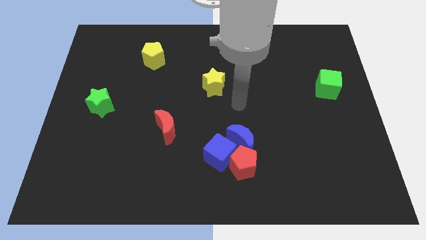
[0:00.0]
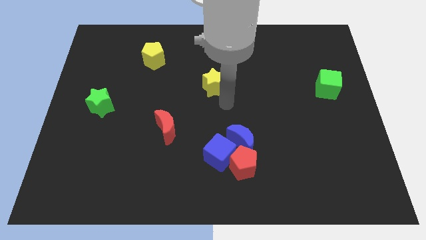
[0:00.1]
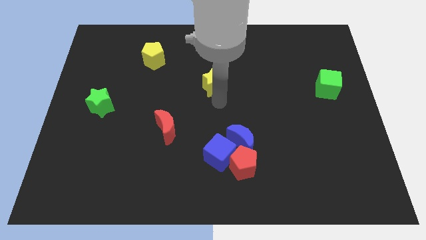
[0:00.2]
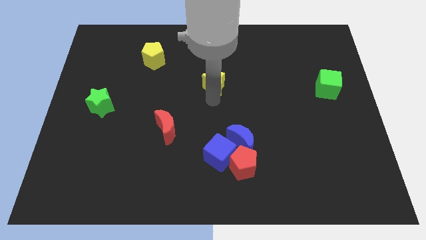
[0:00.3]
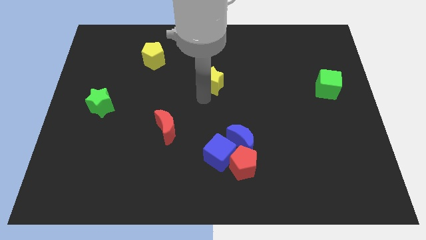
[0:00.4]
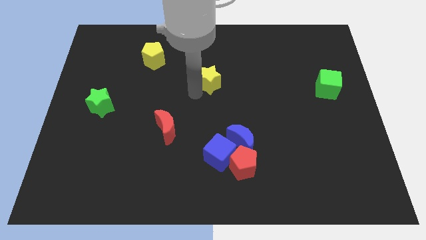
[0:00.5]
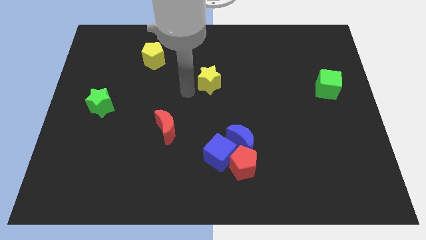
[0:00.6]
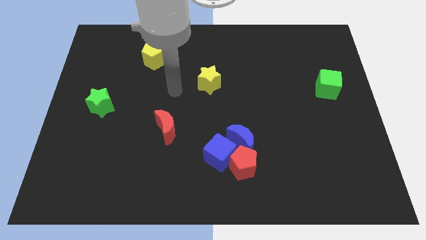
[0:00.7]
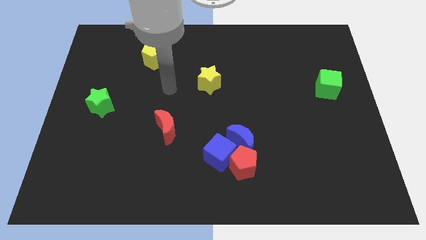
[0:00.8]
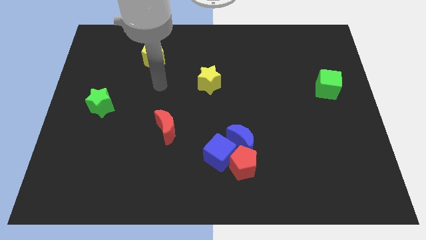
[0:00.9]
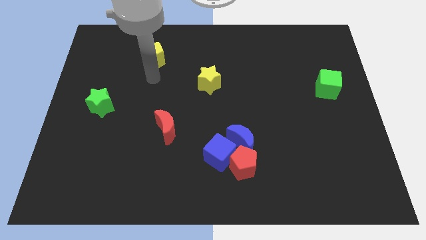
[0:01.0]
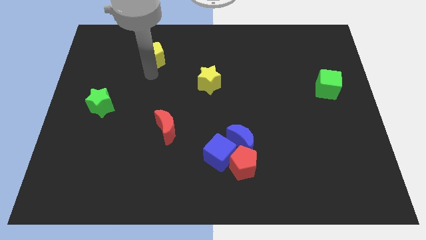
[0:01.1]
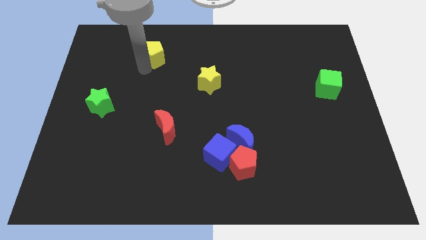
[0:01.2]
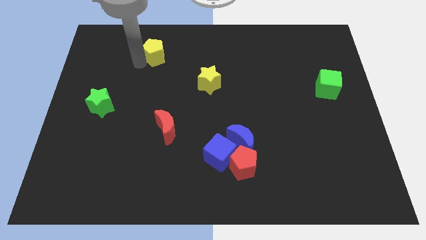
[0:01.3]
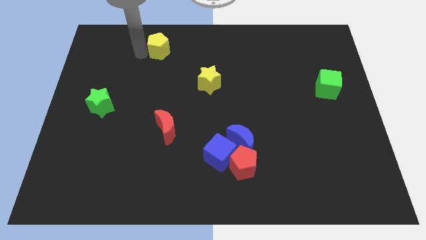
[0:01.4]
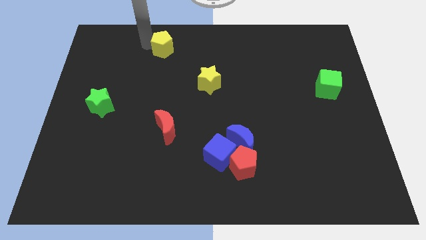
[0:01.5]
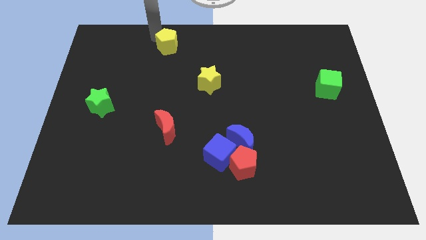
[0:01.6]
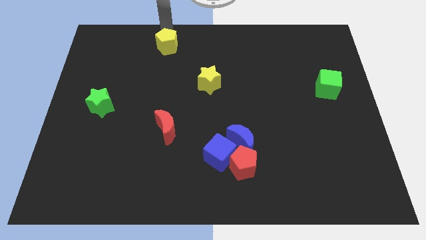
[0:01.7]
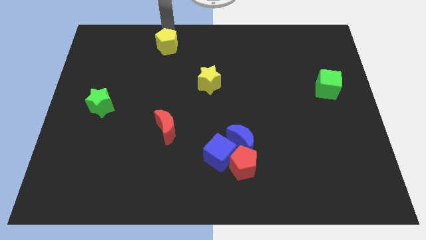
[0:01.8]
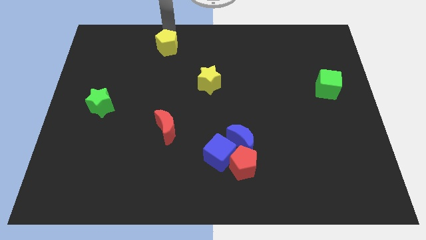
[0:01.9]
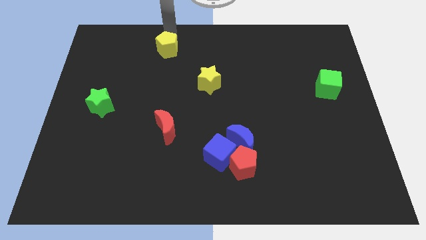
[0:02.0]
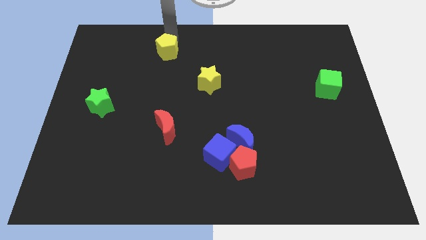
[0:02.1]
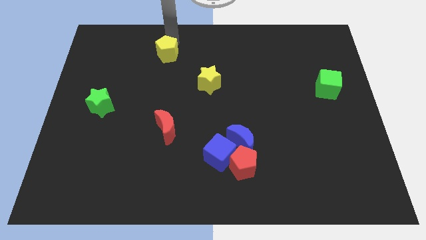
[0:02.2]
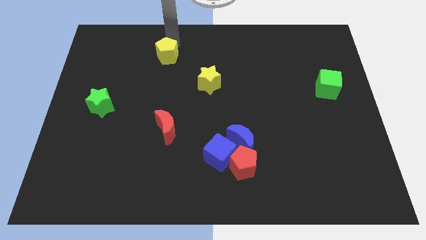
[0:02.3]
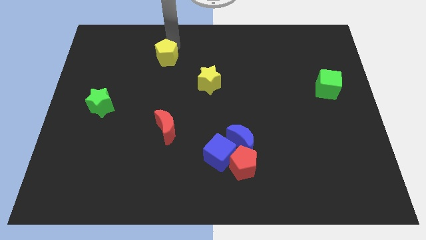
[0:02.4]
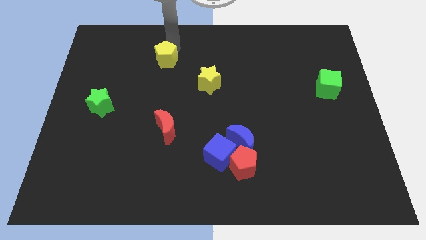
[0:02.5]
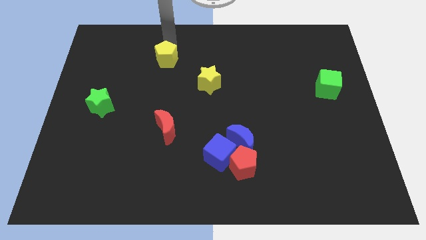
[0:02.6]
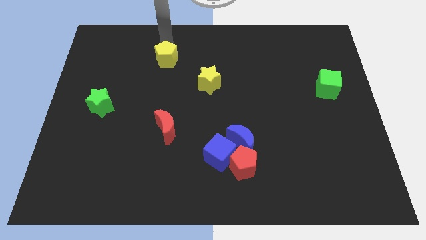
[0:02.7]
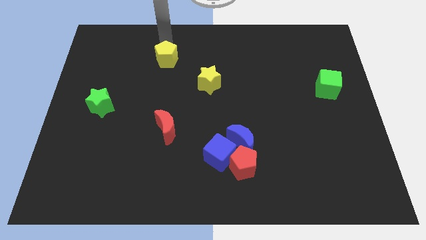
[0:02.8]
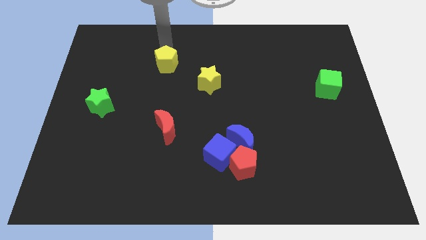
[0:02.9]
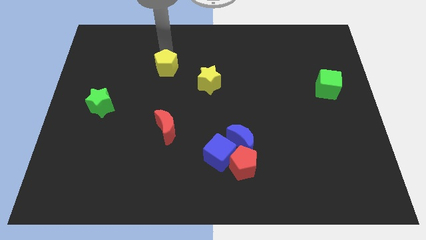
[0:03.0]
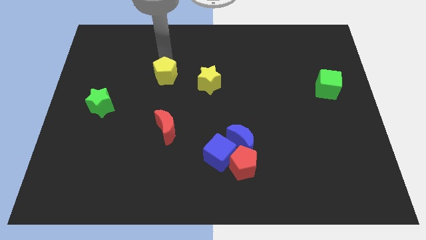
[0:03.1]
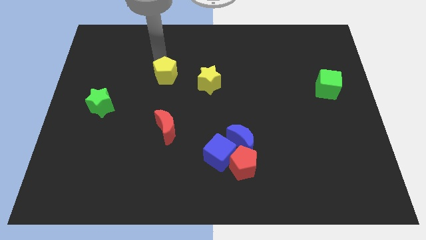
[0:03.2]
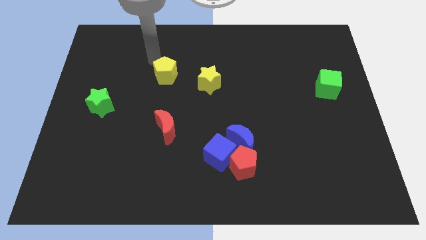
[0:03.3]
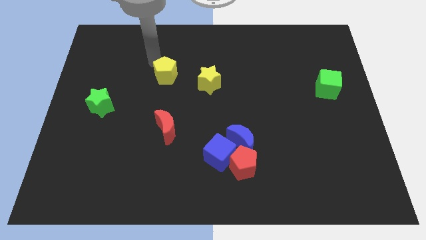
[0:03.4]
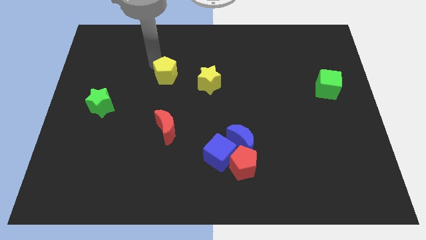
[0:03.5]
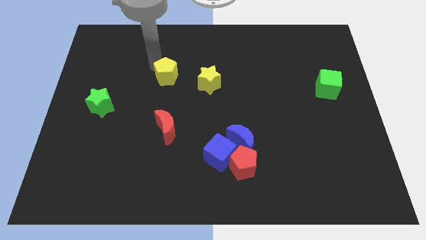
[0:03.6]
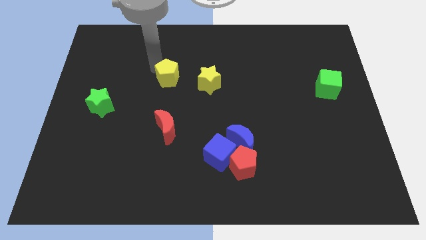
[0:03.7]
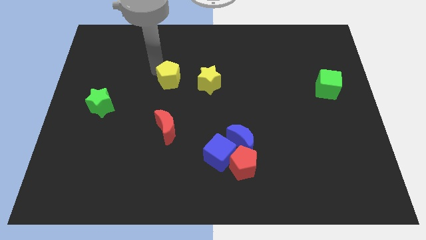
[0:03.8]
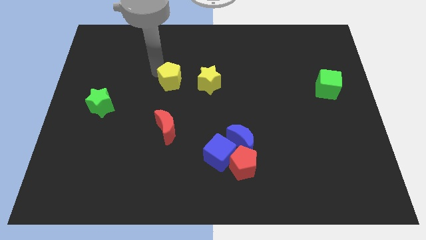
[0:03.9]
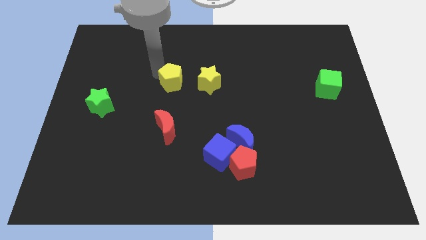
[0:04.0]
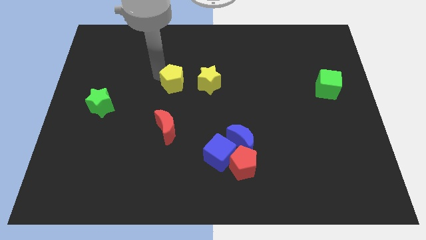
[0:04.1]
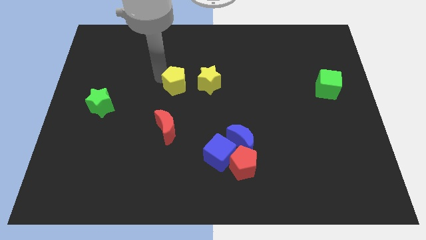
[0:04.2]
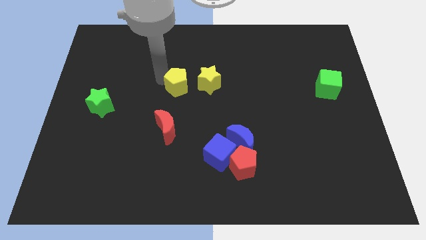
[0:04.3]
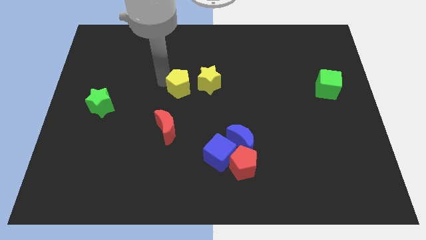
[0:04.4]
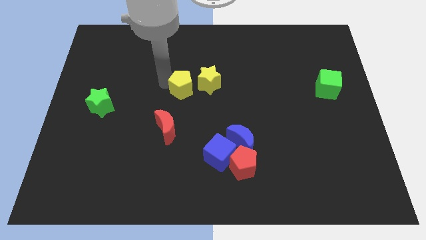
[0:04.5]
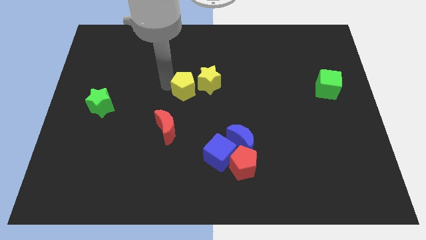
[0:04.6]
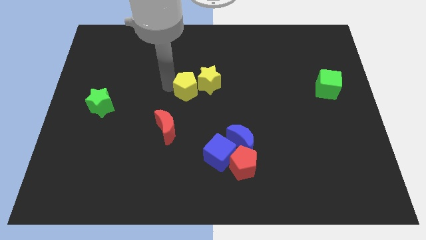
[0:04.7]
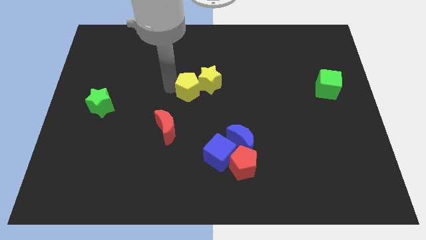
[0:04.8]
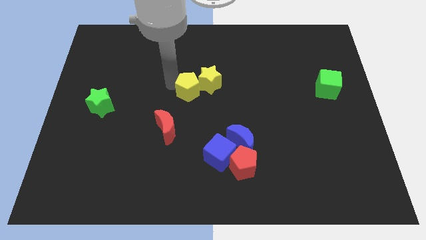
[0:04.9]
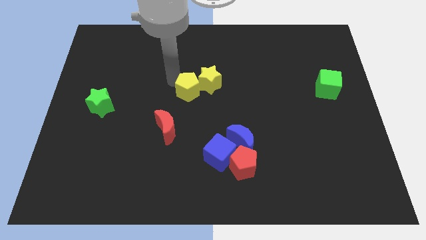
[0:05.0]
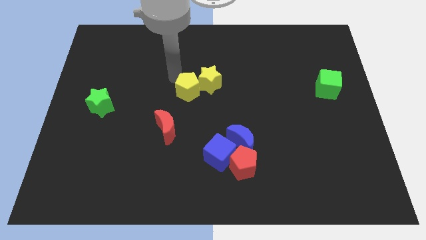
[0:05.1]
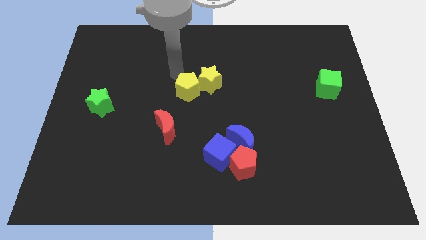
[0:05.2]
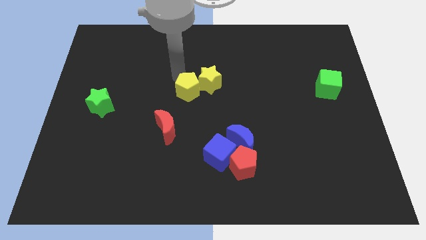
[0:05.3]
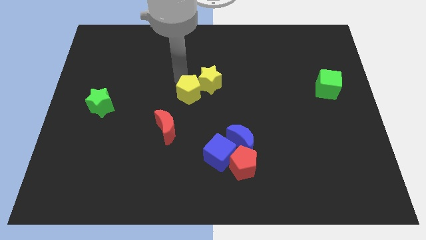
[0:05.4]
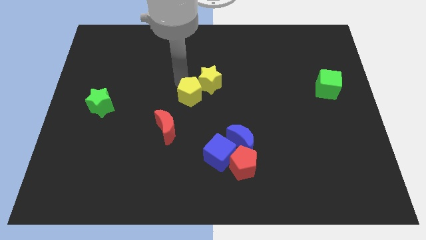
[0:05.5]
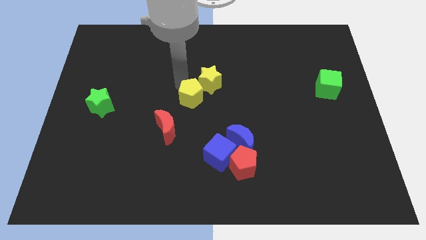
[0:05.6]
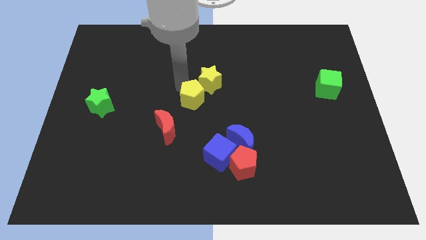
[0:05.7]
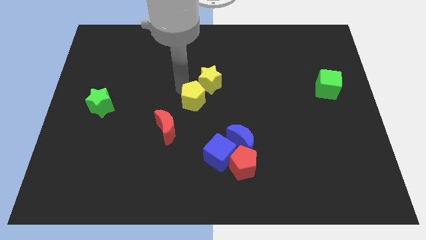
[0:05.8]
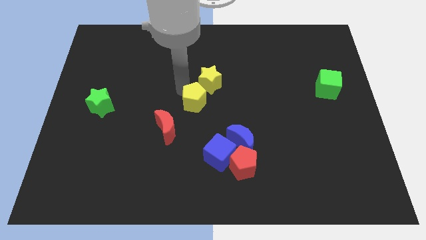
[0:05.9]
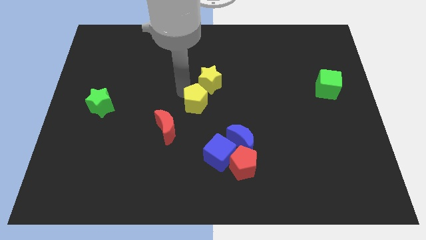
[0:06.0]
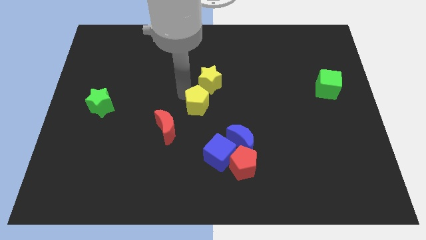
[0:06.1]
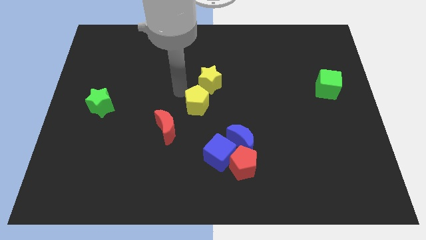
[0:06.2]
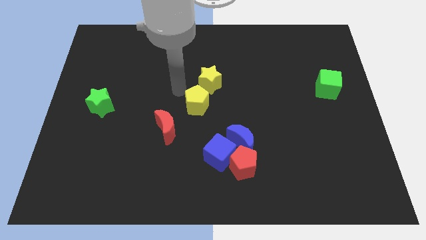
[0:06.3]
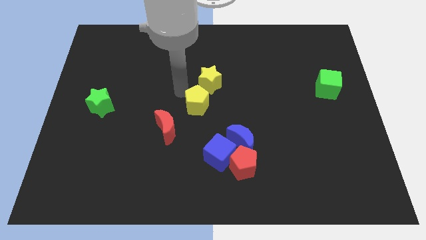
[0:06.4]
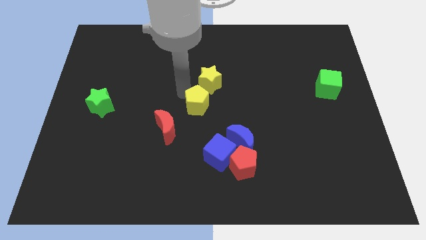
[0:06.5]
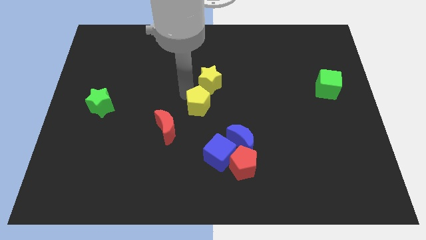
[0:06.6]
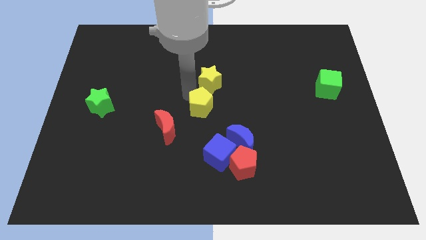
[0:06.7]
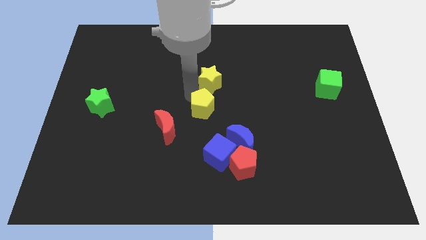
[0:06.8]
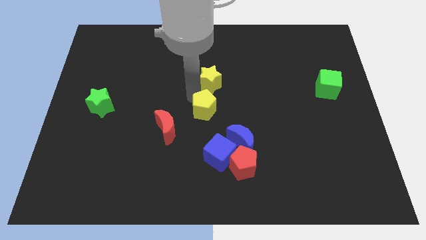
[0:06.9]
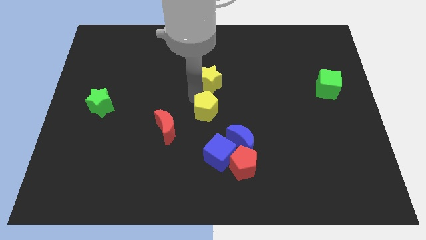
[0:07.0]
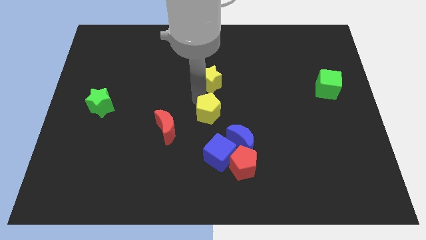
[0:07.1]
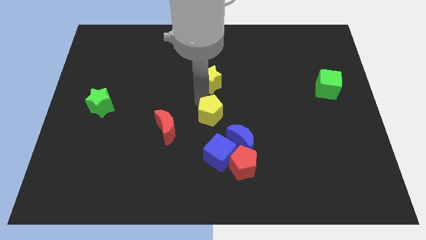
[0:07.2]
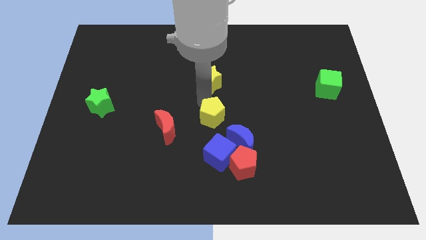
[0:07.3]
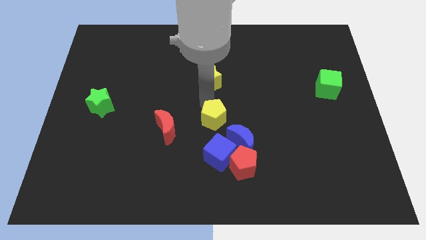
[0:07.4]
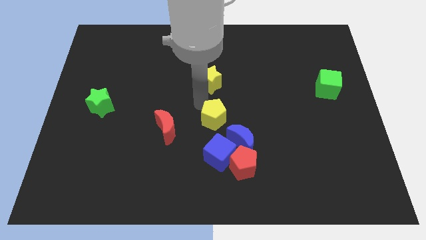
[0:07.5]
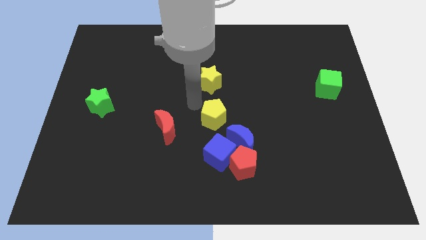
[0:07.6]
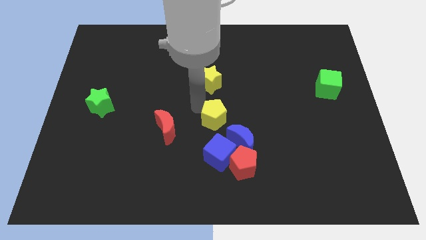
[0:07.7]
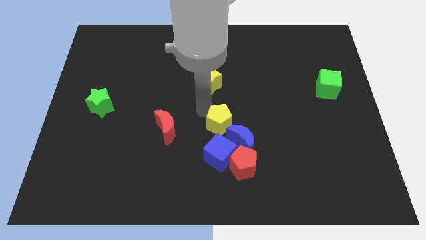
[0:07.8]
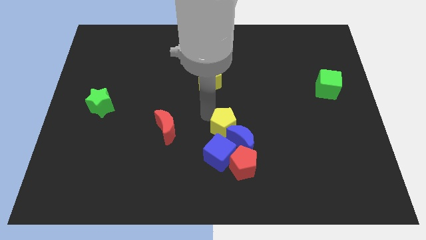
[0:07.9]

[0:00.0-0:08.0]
slide the yellow pentagon next to the blue moon

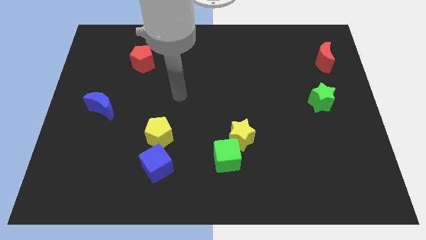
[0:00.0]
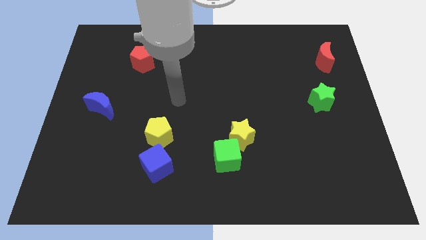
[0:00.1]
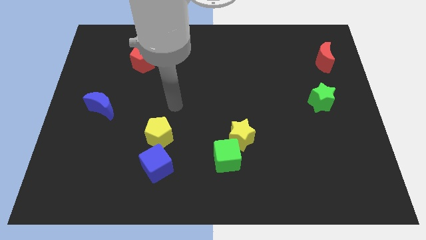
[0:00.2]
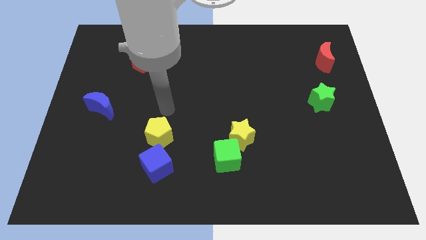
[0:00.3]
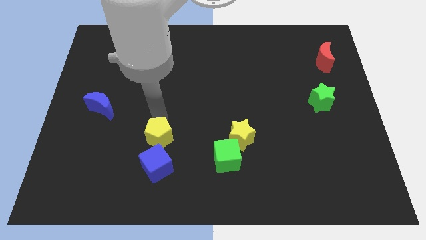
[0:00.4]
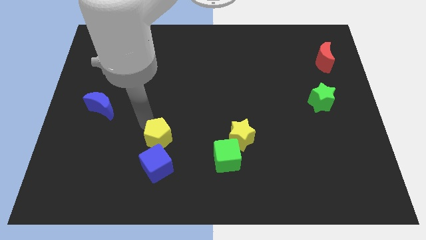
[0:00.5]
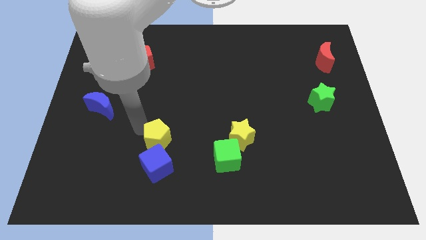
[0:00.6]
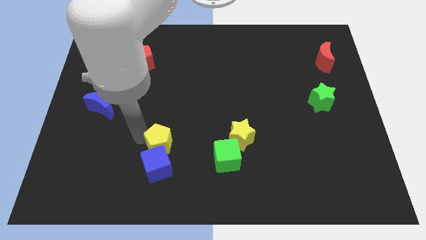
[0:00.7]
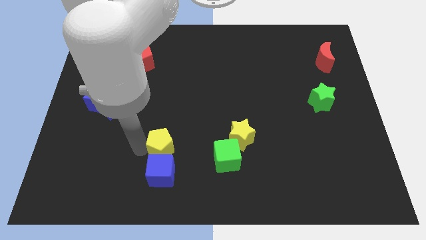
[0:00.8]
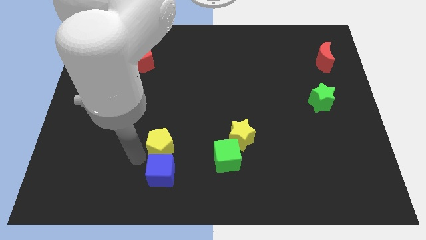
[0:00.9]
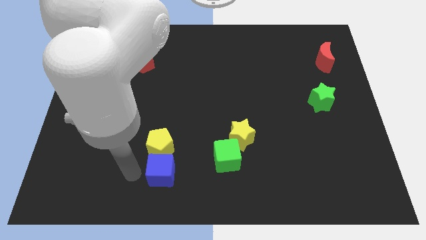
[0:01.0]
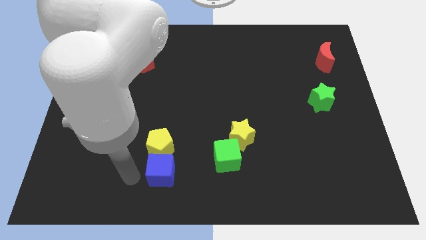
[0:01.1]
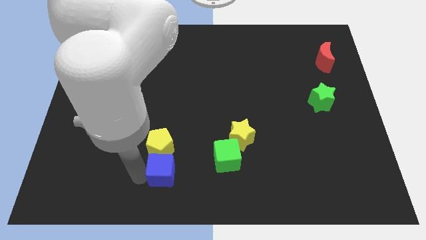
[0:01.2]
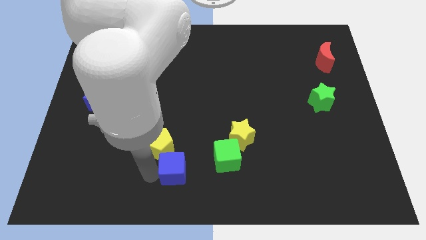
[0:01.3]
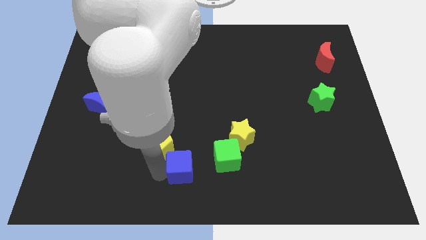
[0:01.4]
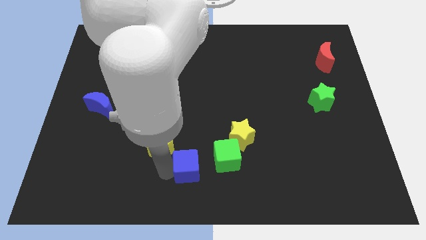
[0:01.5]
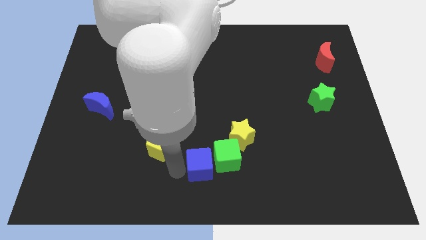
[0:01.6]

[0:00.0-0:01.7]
move the blue cube next to the green cube
